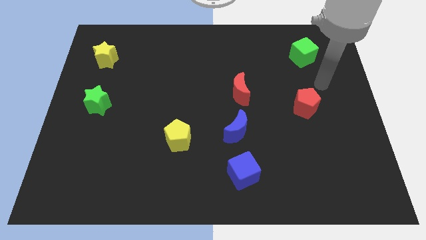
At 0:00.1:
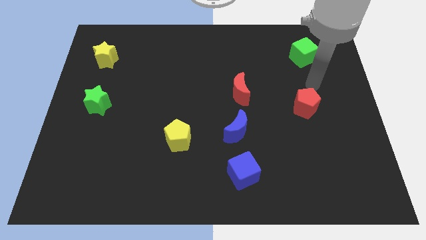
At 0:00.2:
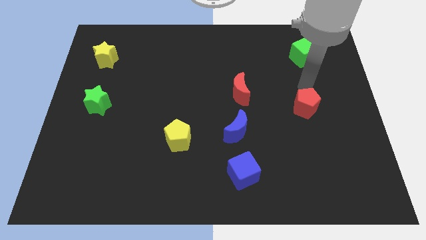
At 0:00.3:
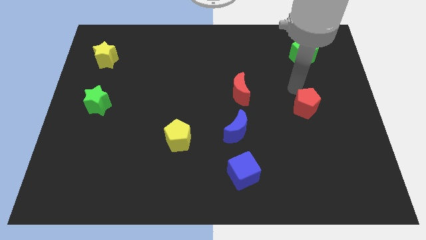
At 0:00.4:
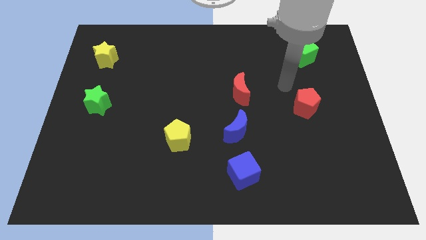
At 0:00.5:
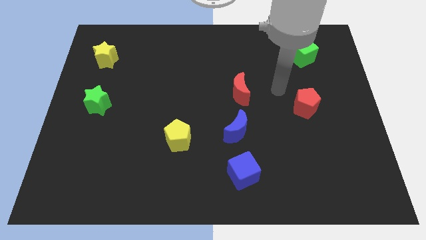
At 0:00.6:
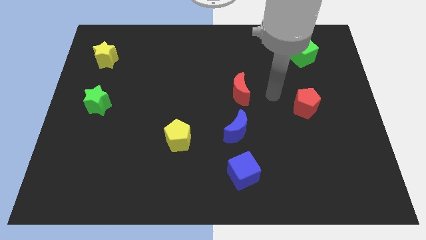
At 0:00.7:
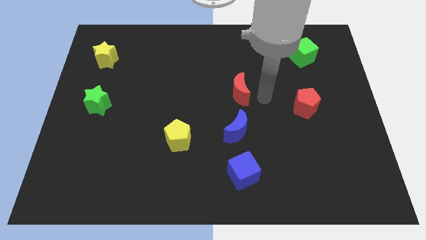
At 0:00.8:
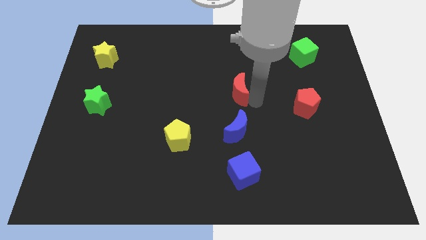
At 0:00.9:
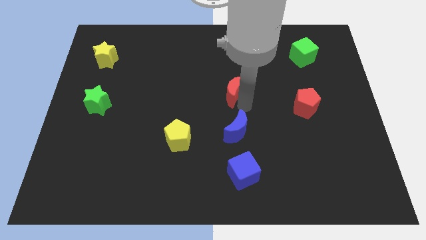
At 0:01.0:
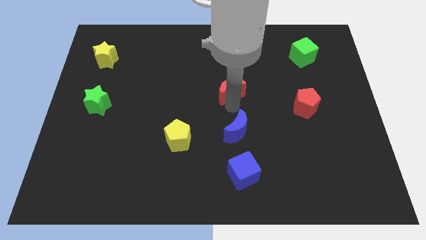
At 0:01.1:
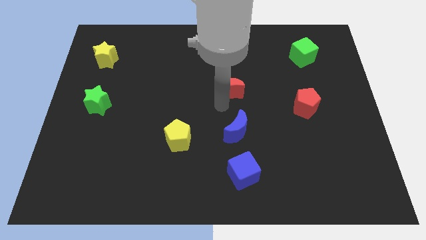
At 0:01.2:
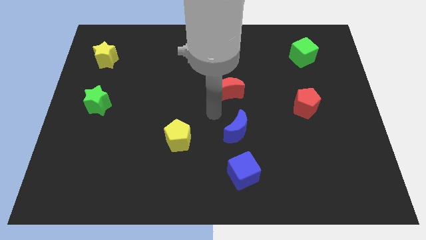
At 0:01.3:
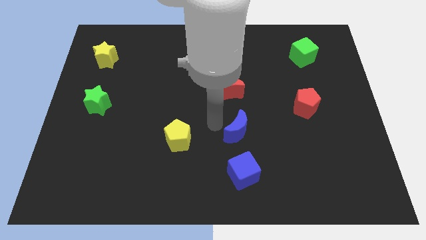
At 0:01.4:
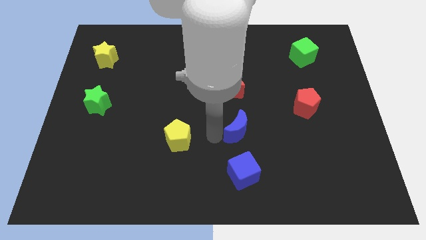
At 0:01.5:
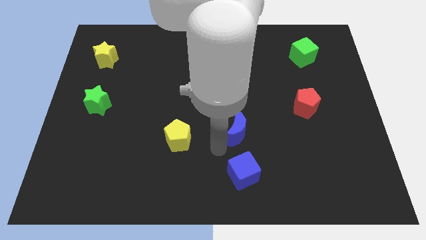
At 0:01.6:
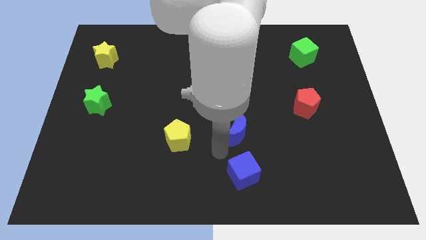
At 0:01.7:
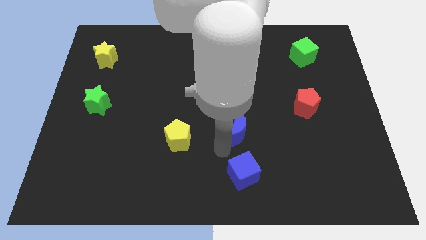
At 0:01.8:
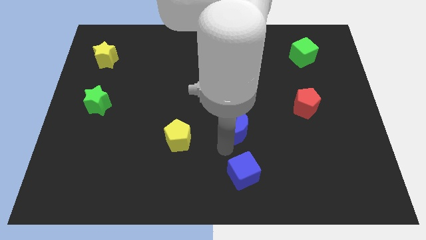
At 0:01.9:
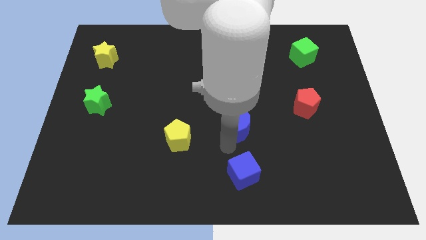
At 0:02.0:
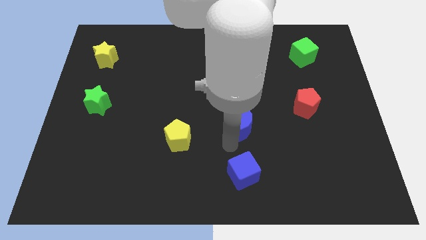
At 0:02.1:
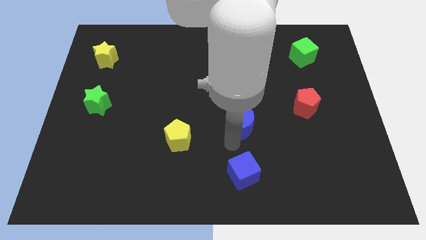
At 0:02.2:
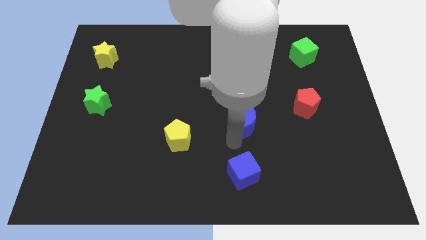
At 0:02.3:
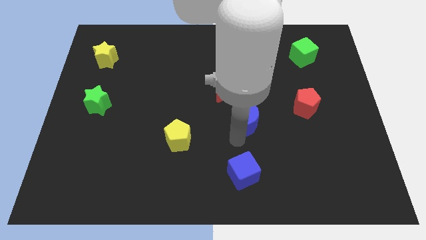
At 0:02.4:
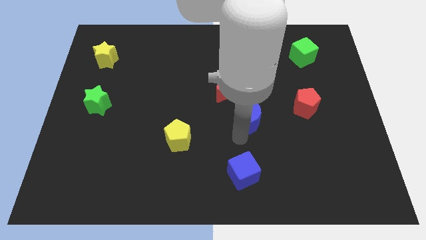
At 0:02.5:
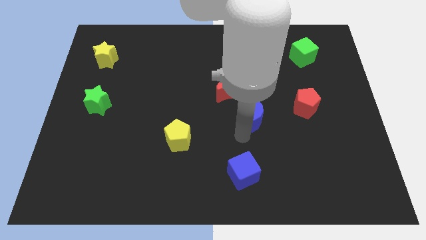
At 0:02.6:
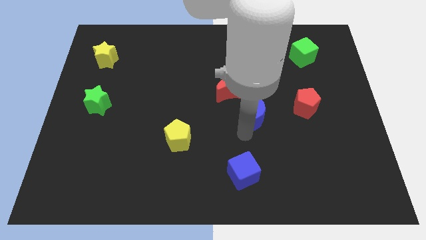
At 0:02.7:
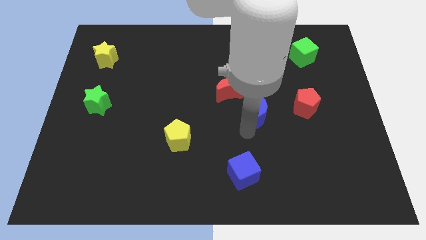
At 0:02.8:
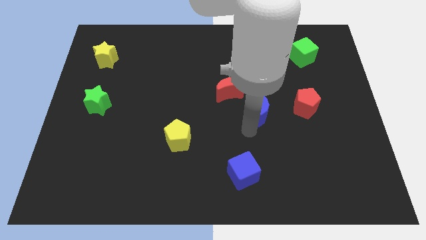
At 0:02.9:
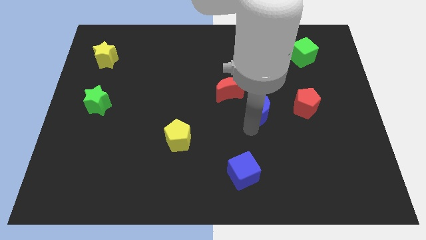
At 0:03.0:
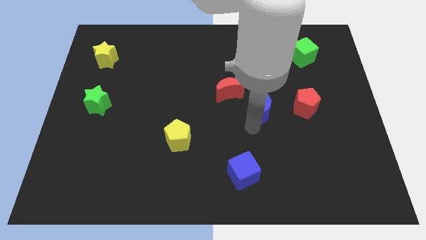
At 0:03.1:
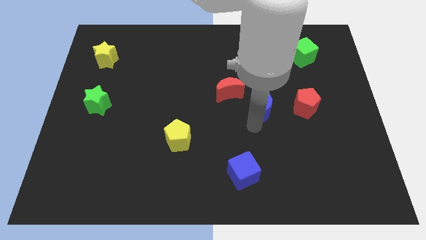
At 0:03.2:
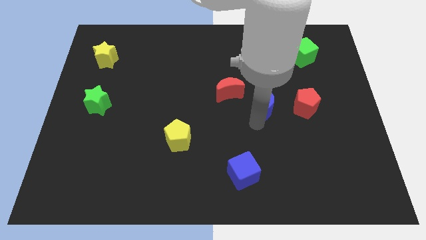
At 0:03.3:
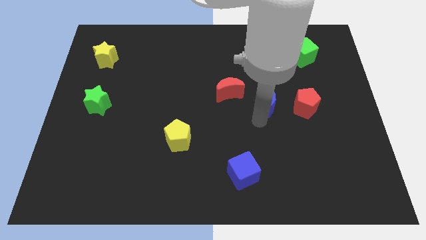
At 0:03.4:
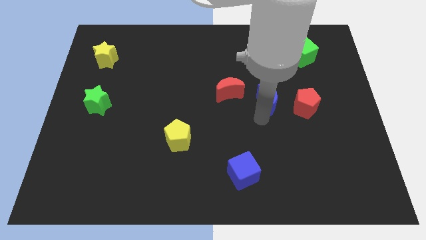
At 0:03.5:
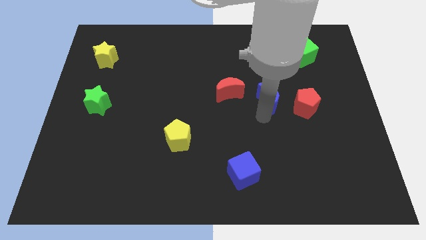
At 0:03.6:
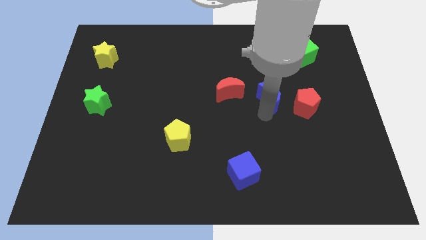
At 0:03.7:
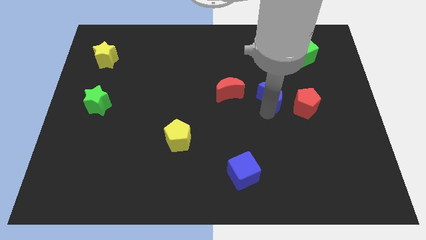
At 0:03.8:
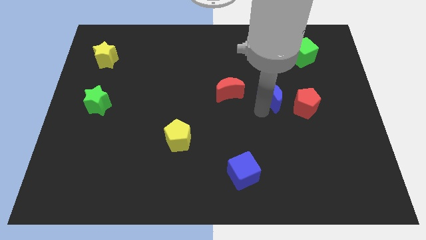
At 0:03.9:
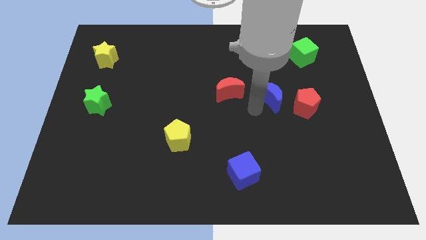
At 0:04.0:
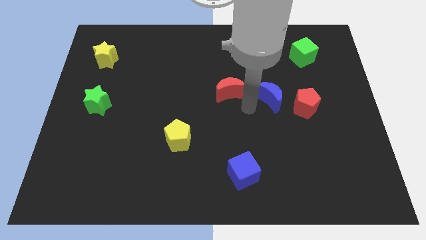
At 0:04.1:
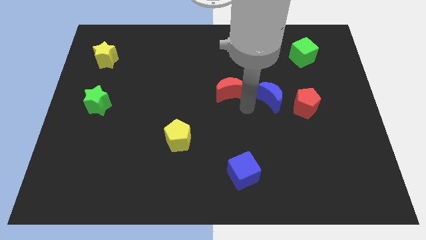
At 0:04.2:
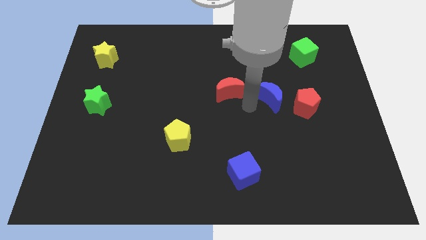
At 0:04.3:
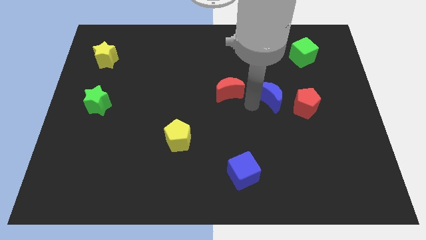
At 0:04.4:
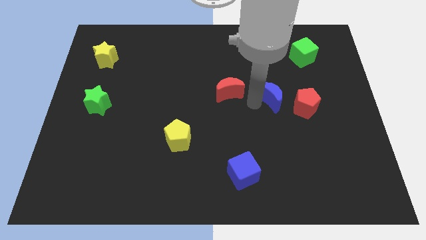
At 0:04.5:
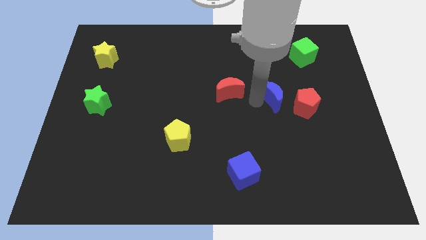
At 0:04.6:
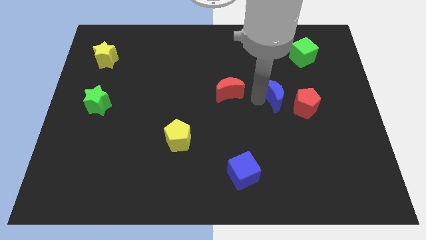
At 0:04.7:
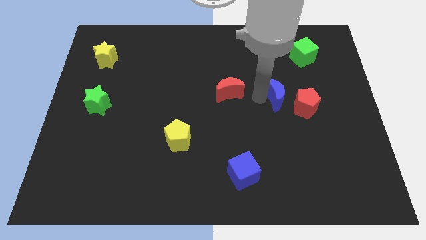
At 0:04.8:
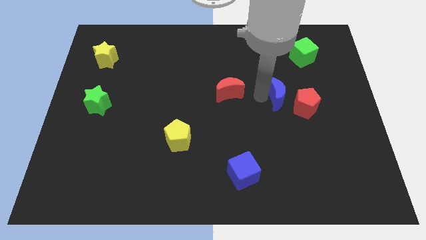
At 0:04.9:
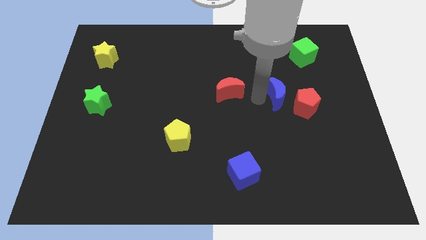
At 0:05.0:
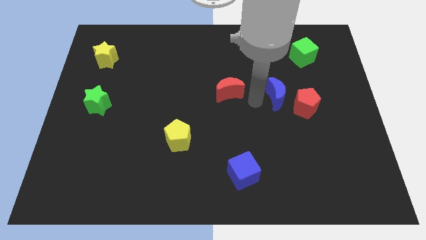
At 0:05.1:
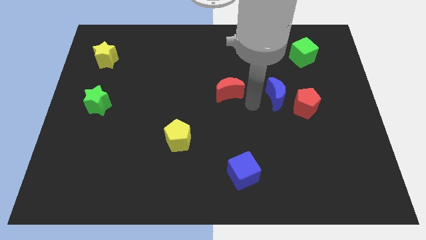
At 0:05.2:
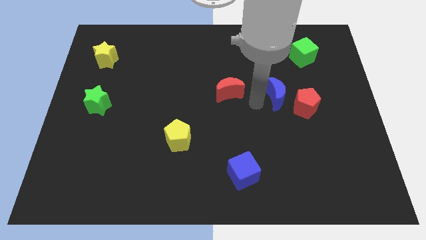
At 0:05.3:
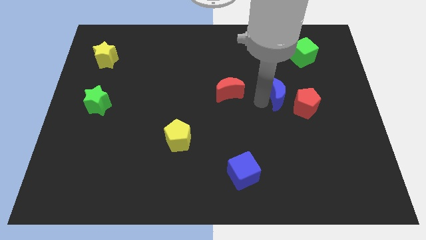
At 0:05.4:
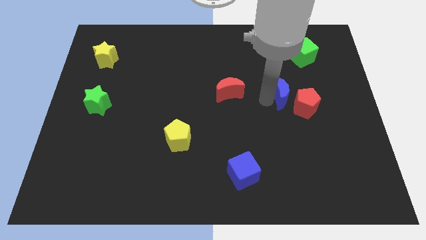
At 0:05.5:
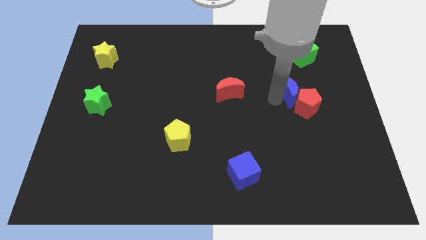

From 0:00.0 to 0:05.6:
push the blue moon to the top of the red pentagon

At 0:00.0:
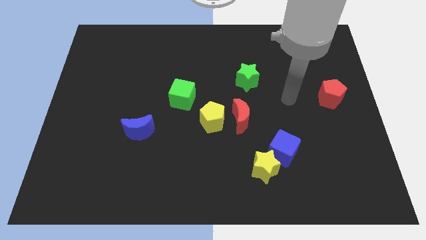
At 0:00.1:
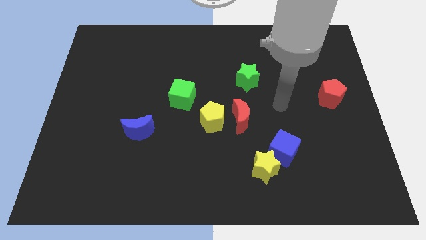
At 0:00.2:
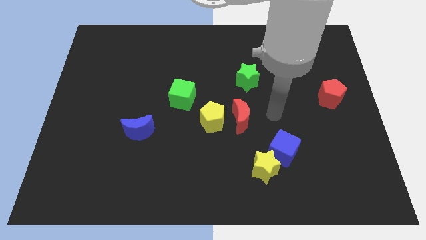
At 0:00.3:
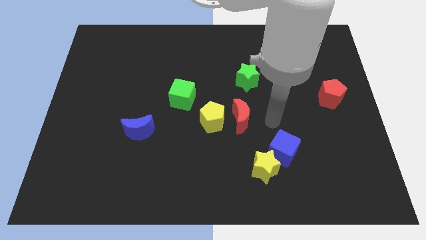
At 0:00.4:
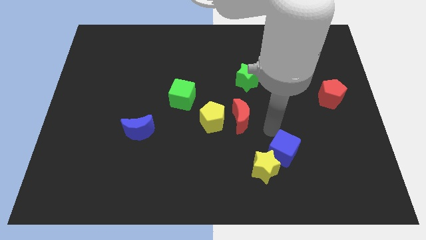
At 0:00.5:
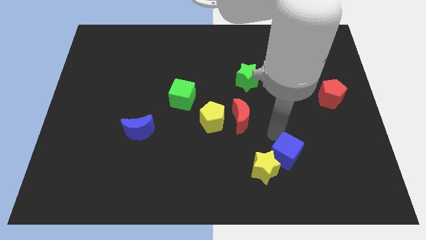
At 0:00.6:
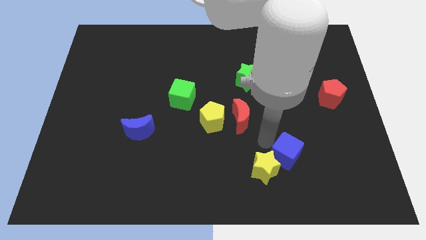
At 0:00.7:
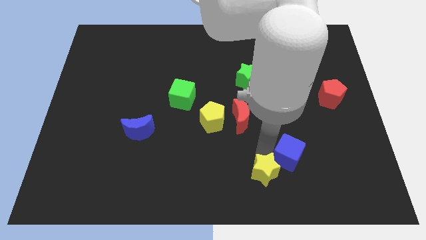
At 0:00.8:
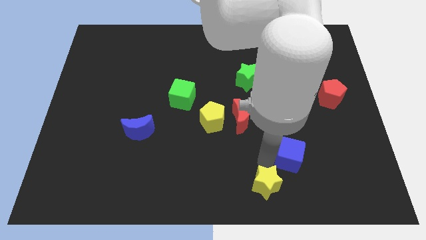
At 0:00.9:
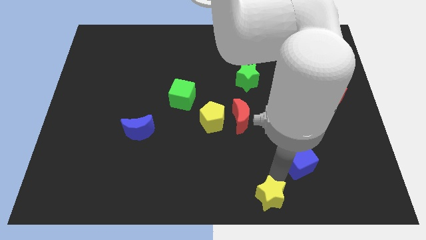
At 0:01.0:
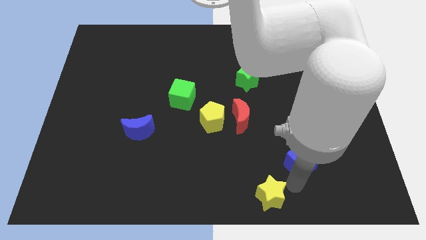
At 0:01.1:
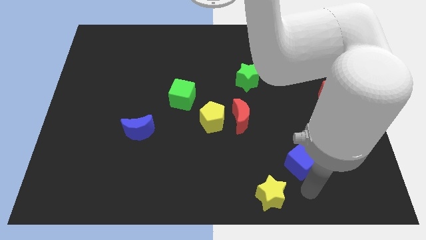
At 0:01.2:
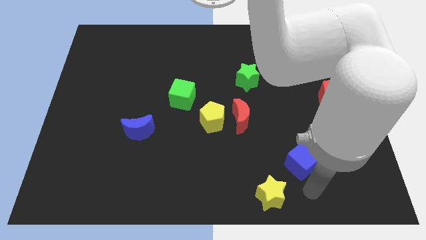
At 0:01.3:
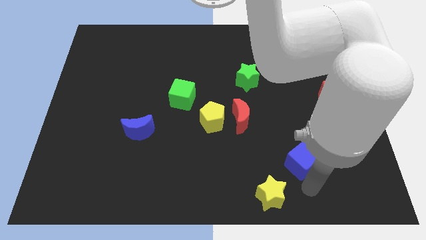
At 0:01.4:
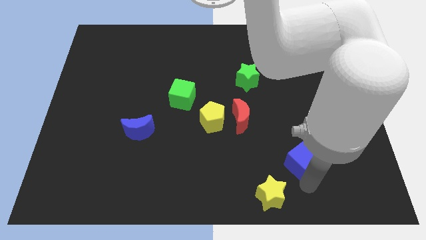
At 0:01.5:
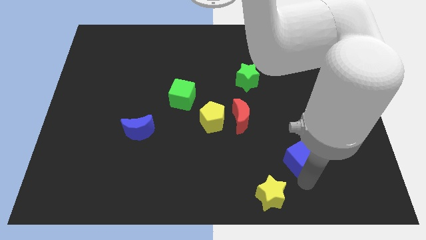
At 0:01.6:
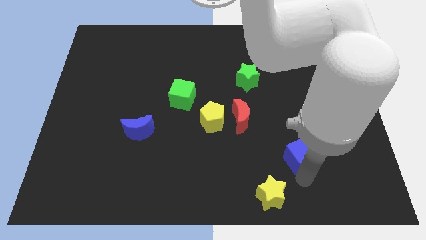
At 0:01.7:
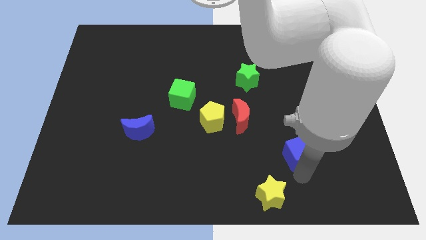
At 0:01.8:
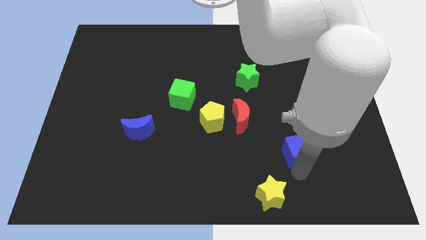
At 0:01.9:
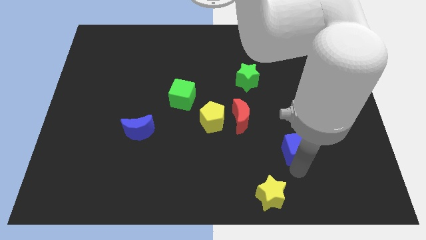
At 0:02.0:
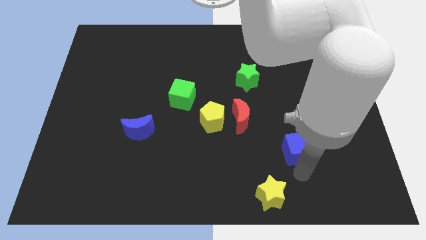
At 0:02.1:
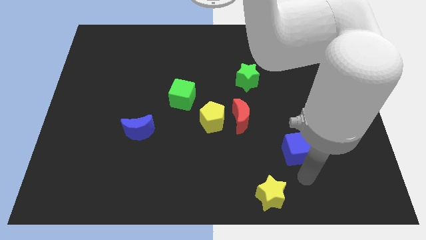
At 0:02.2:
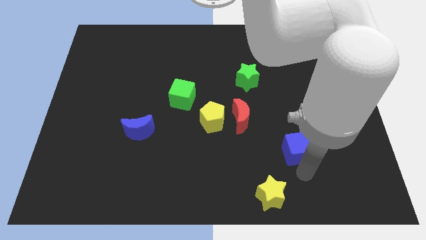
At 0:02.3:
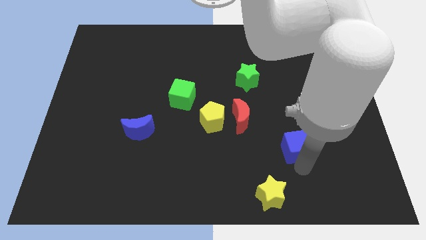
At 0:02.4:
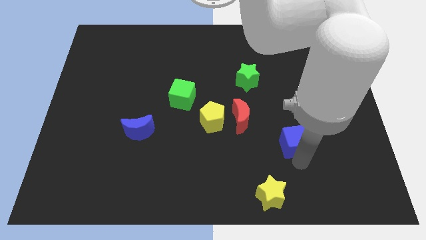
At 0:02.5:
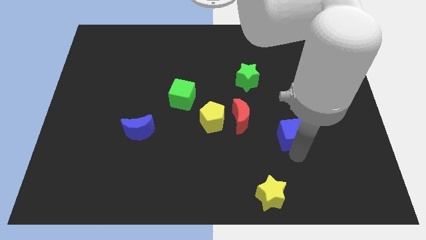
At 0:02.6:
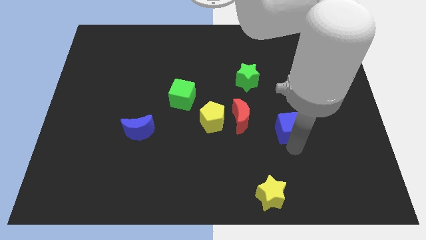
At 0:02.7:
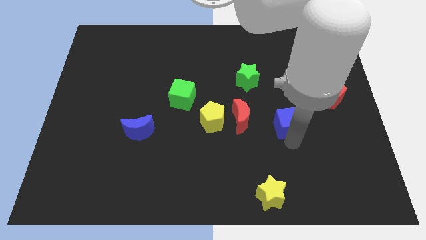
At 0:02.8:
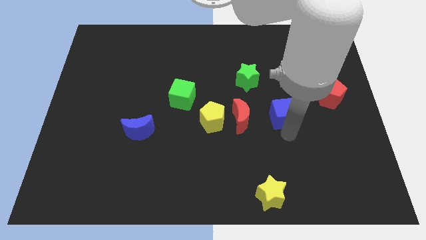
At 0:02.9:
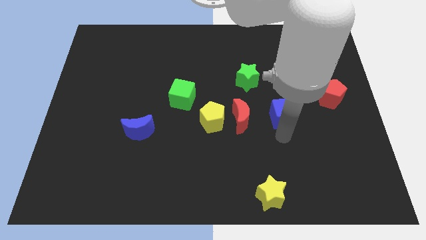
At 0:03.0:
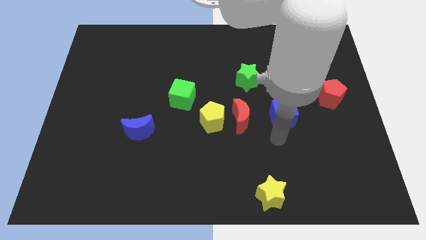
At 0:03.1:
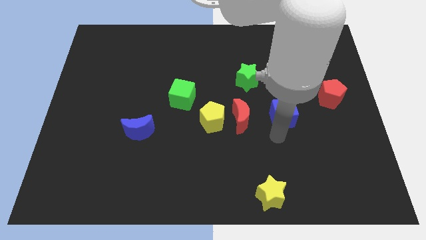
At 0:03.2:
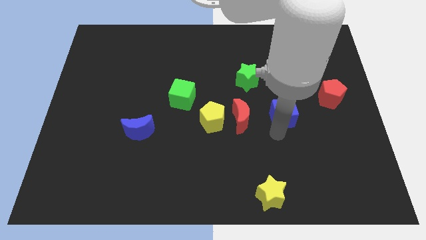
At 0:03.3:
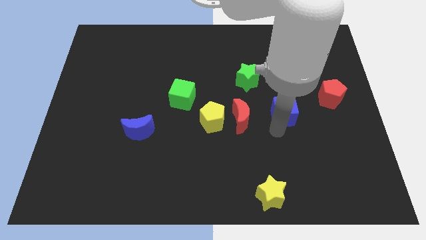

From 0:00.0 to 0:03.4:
push the blue cube to the left side of the red pentagon
